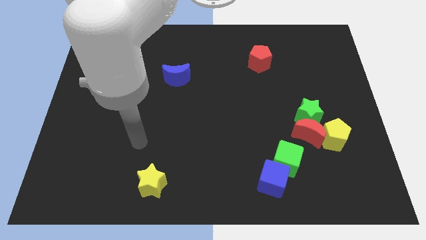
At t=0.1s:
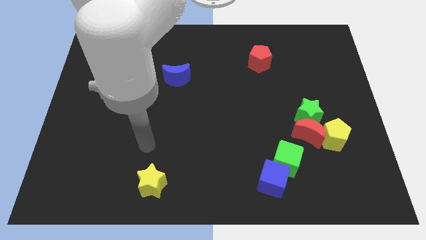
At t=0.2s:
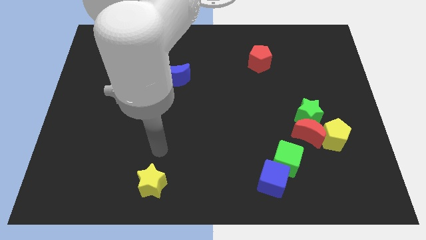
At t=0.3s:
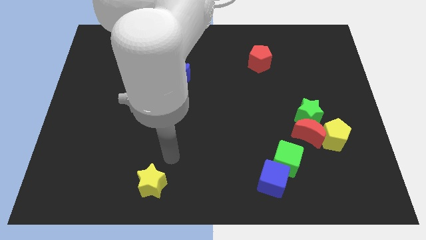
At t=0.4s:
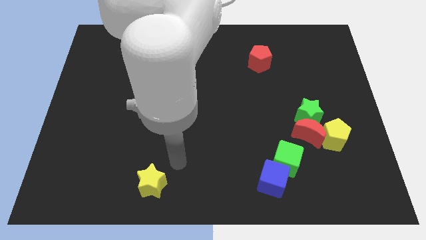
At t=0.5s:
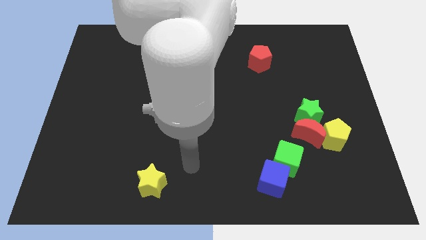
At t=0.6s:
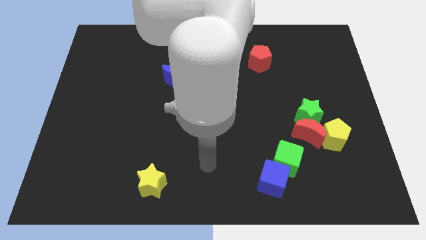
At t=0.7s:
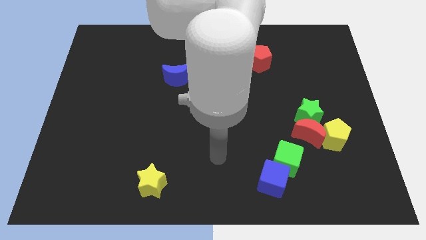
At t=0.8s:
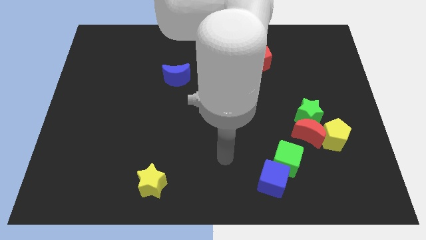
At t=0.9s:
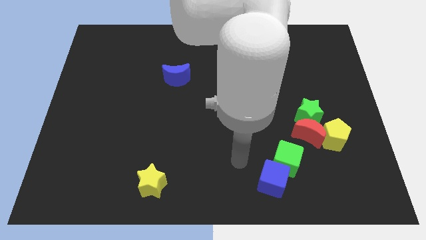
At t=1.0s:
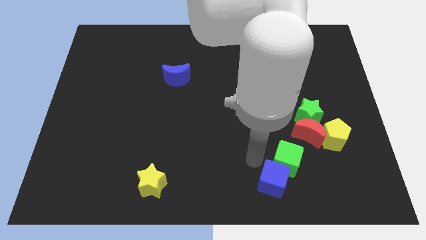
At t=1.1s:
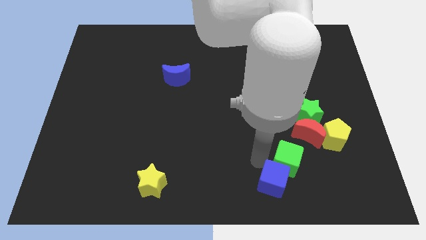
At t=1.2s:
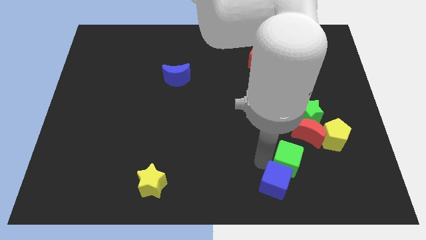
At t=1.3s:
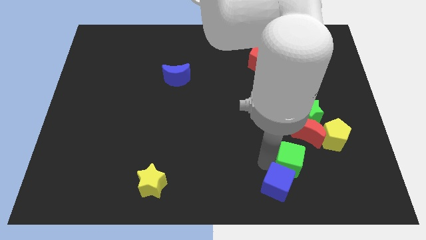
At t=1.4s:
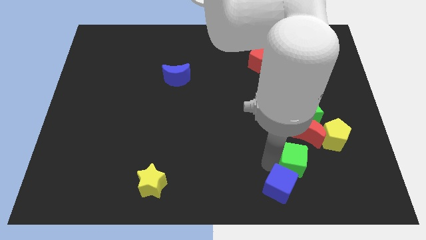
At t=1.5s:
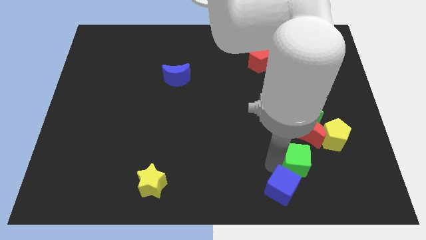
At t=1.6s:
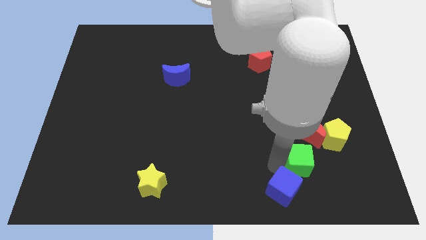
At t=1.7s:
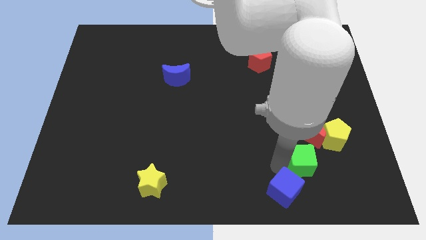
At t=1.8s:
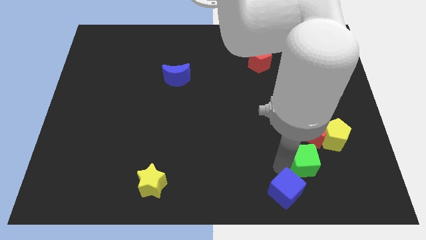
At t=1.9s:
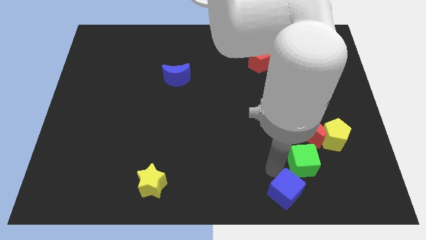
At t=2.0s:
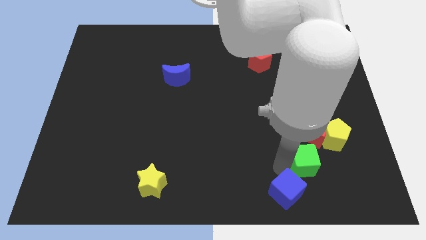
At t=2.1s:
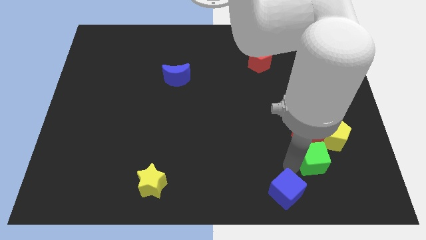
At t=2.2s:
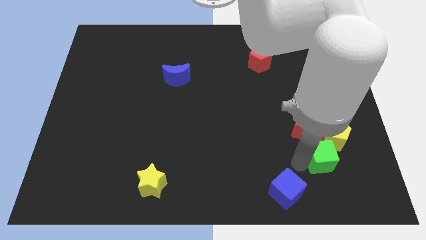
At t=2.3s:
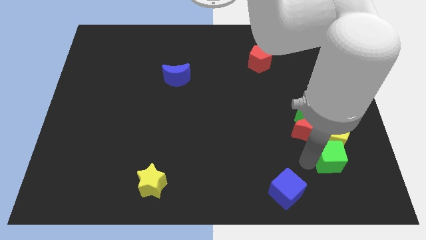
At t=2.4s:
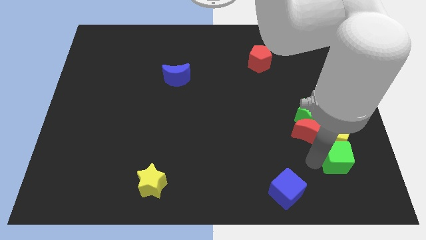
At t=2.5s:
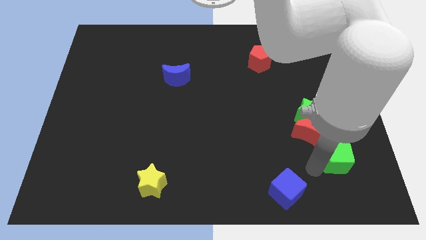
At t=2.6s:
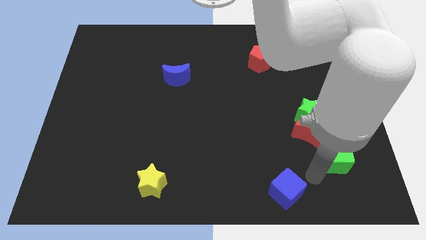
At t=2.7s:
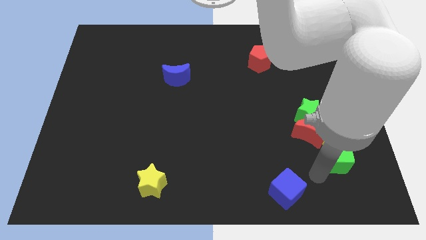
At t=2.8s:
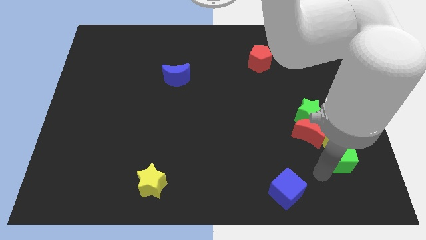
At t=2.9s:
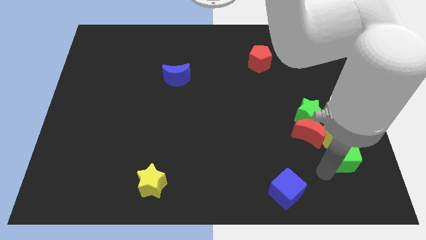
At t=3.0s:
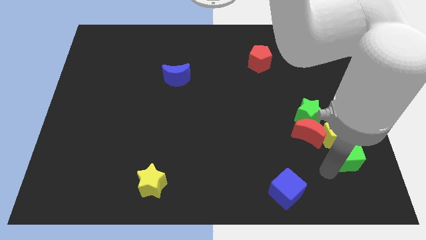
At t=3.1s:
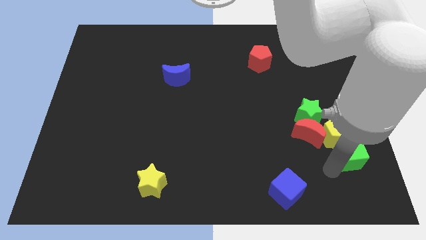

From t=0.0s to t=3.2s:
slightly move the green cube upwards and to the right

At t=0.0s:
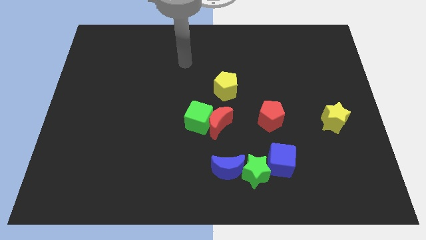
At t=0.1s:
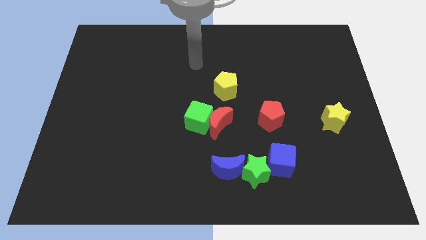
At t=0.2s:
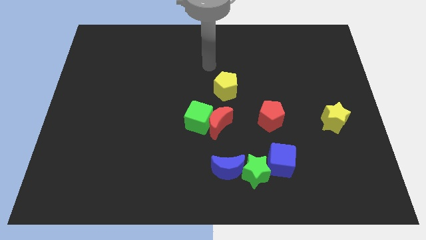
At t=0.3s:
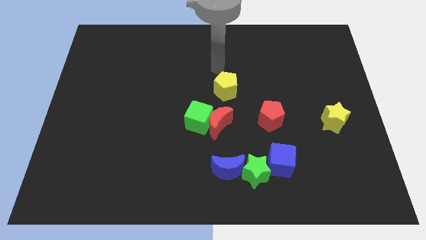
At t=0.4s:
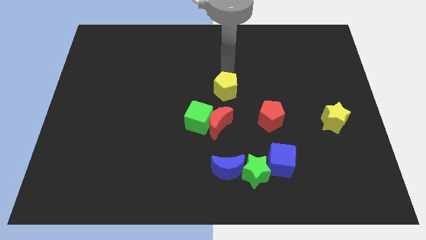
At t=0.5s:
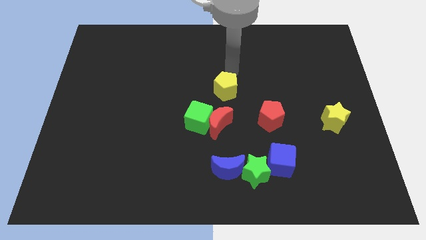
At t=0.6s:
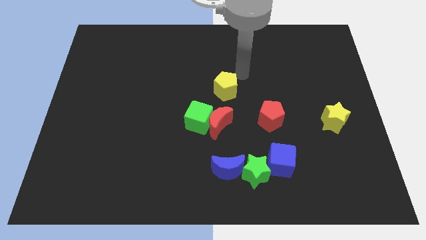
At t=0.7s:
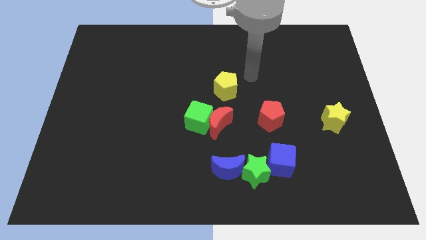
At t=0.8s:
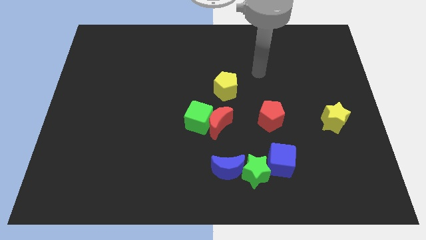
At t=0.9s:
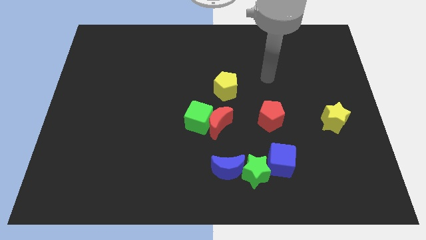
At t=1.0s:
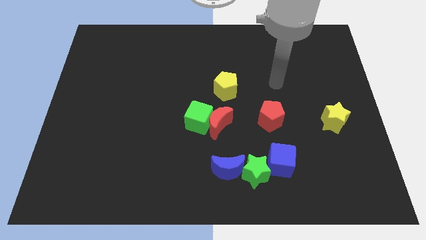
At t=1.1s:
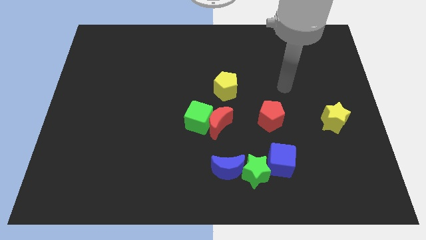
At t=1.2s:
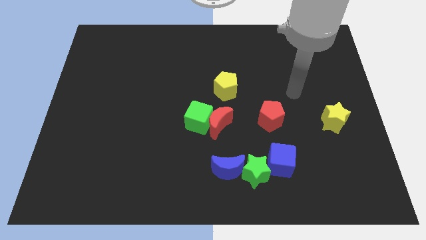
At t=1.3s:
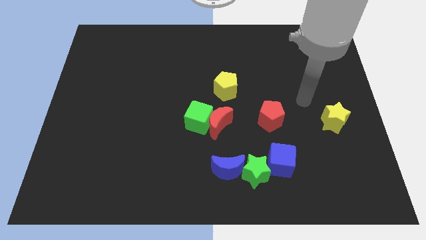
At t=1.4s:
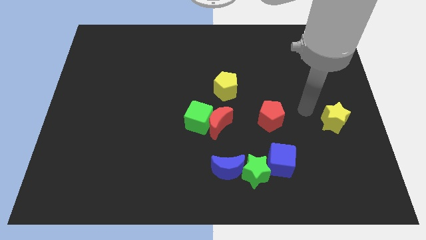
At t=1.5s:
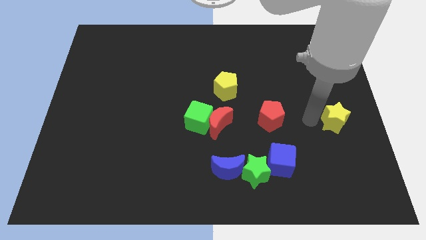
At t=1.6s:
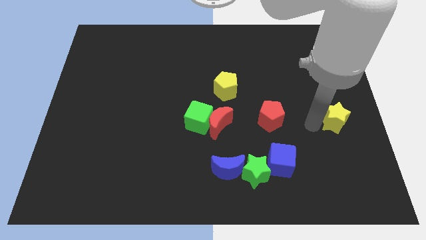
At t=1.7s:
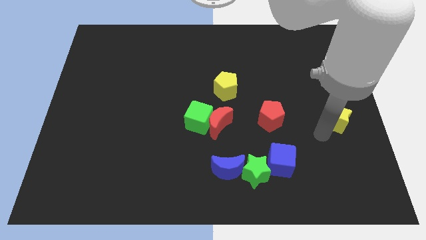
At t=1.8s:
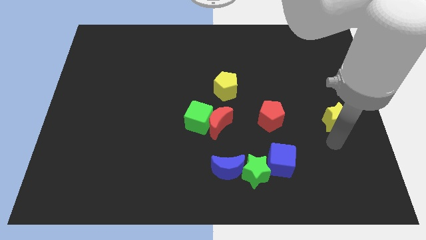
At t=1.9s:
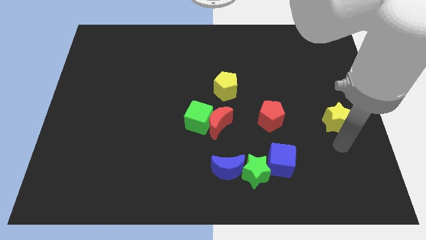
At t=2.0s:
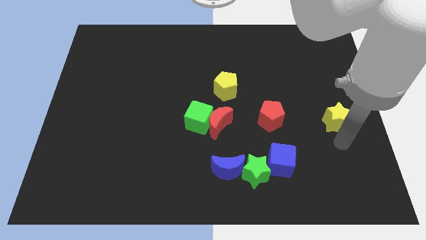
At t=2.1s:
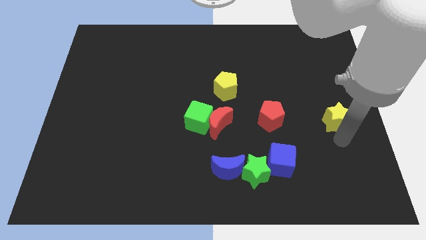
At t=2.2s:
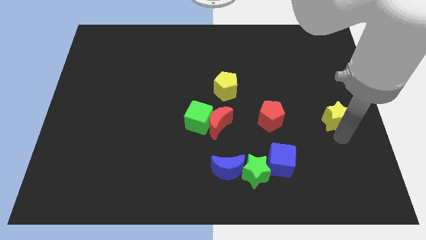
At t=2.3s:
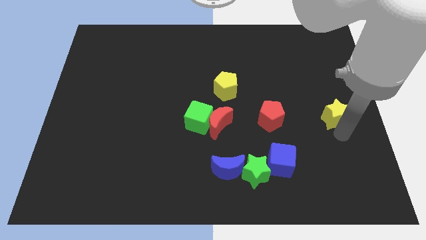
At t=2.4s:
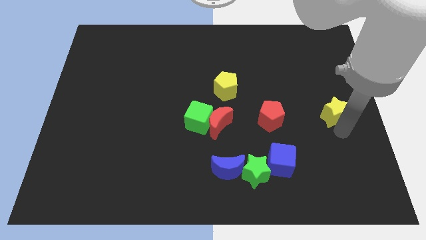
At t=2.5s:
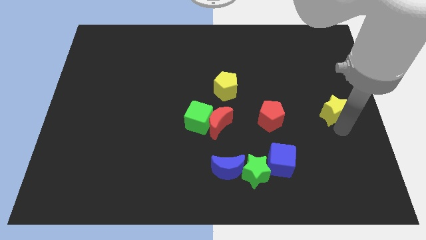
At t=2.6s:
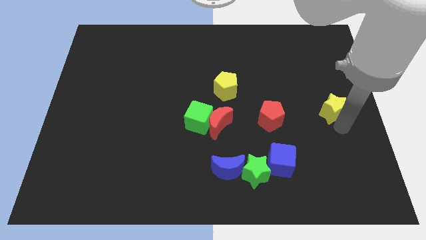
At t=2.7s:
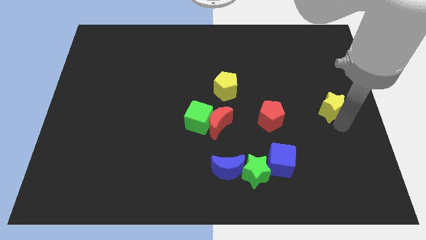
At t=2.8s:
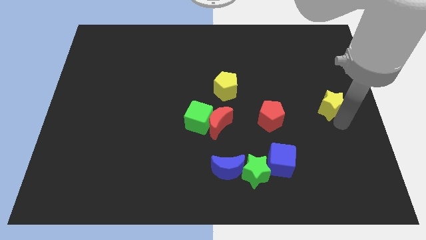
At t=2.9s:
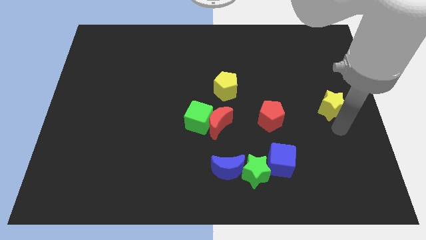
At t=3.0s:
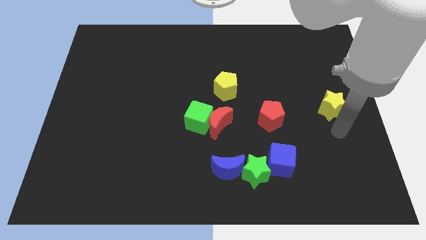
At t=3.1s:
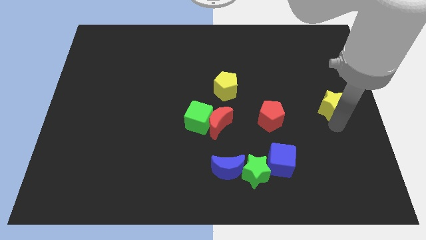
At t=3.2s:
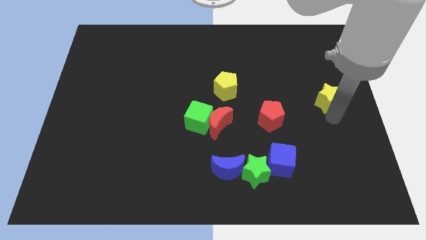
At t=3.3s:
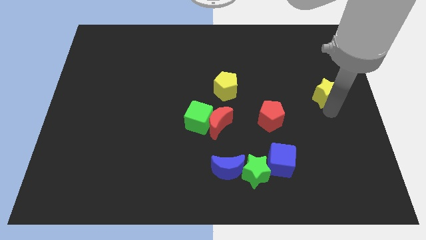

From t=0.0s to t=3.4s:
slide the yellow star a little up

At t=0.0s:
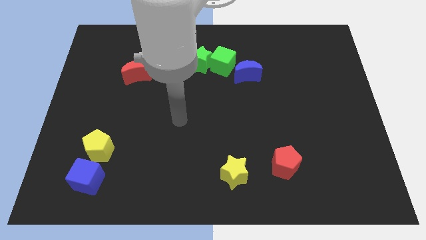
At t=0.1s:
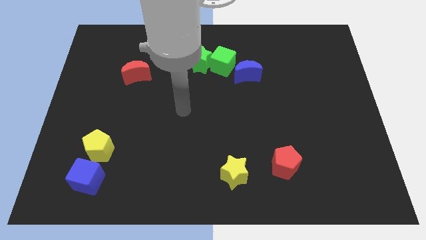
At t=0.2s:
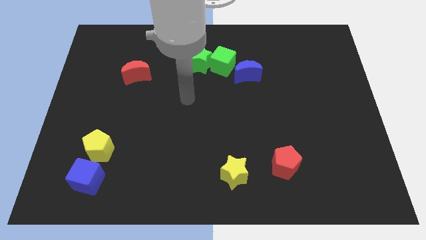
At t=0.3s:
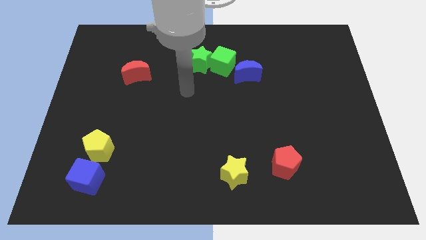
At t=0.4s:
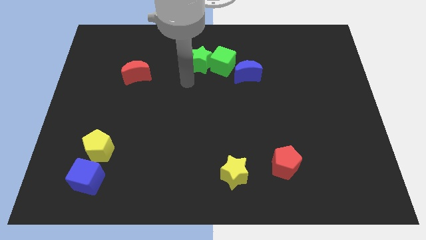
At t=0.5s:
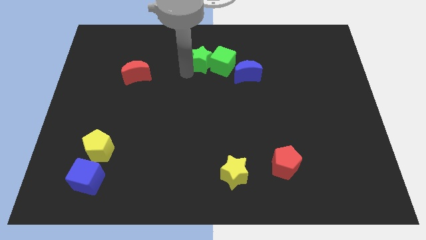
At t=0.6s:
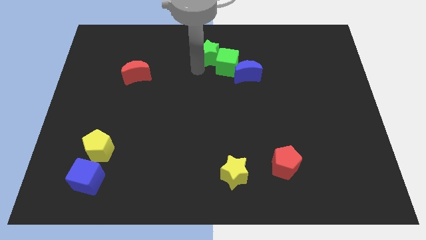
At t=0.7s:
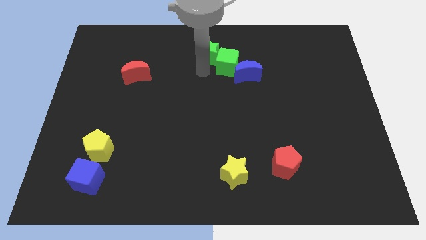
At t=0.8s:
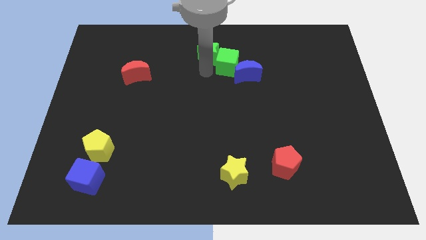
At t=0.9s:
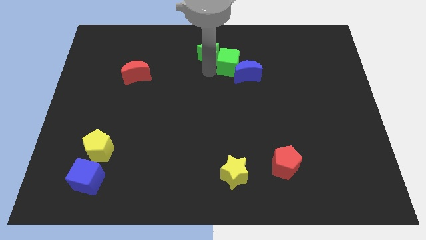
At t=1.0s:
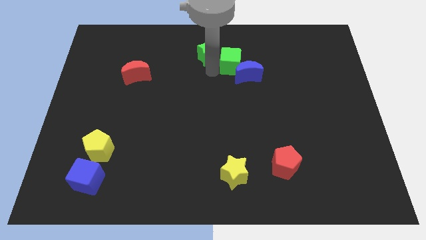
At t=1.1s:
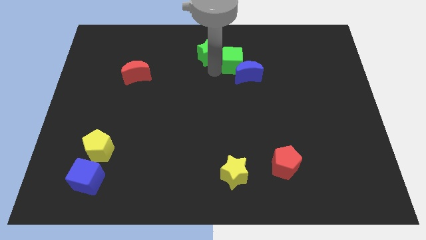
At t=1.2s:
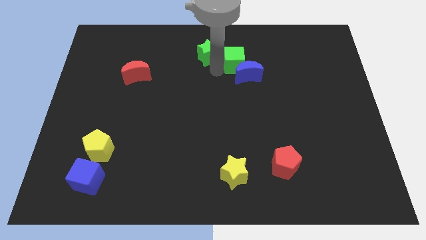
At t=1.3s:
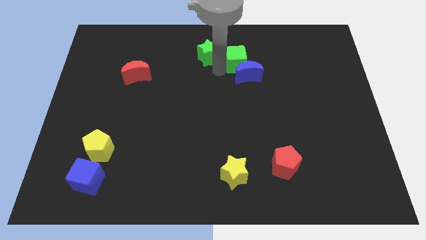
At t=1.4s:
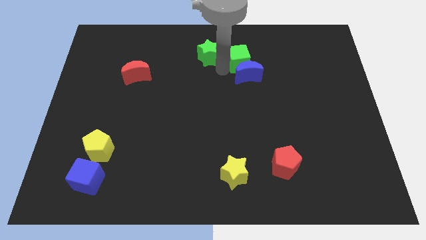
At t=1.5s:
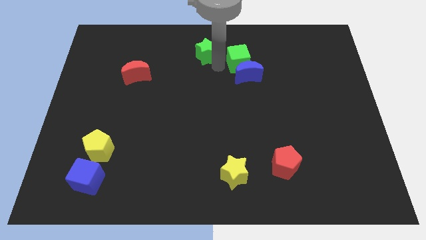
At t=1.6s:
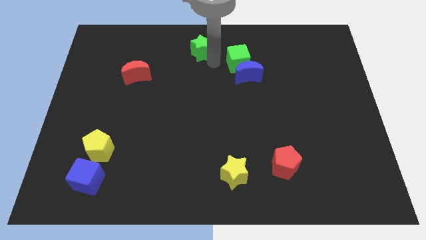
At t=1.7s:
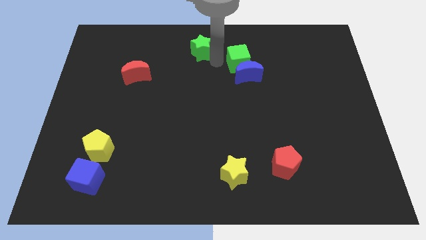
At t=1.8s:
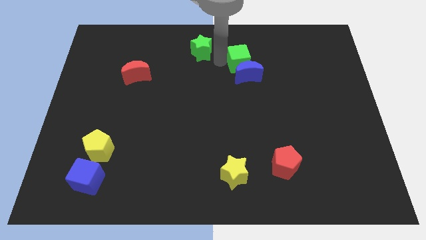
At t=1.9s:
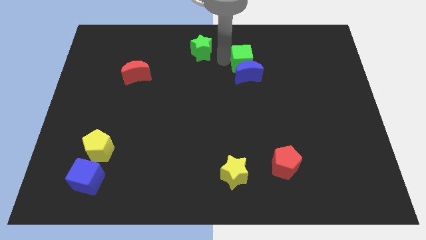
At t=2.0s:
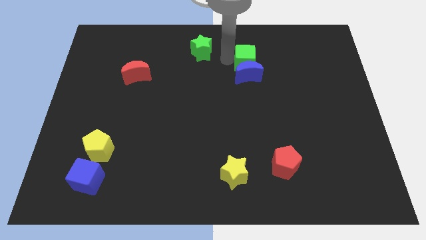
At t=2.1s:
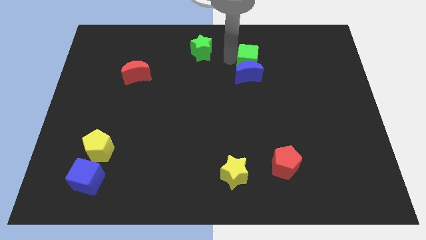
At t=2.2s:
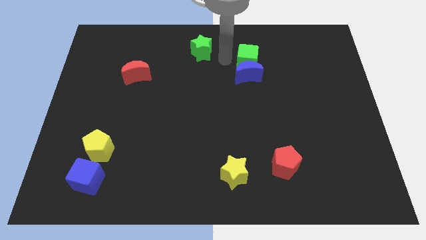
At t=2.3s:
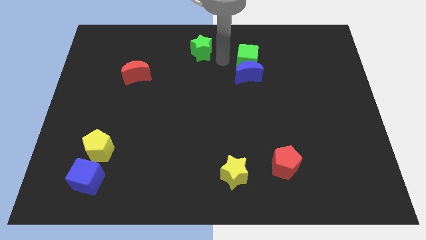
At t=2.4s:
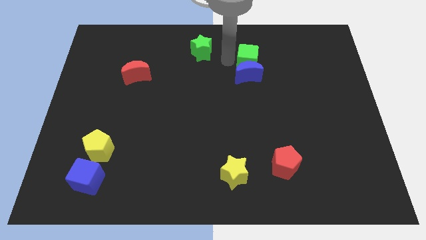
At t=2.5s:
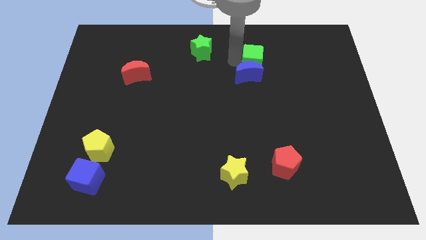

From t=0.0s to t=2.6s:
slide the green cube to the right slightly
